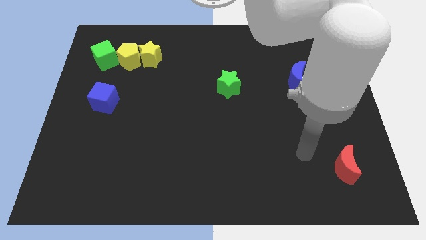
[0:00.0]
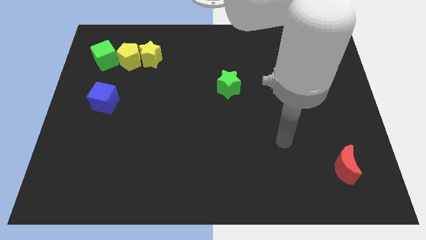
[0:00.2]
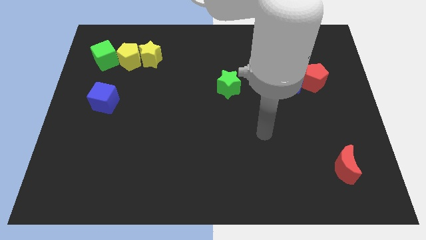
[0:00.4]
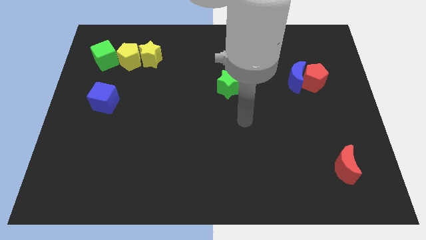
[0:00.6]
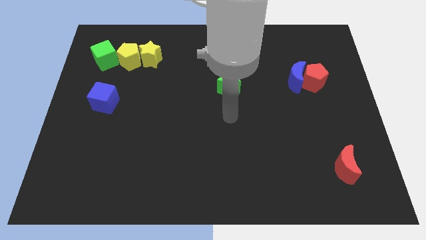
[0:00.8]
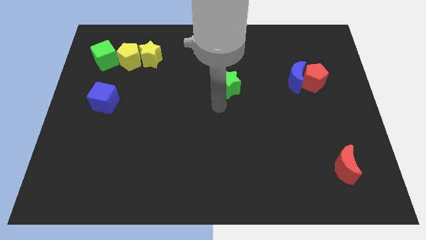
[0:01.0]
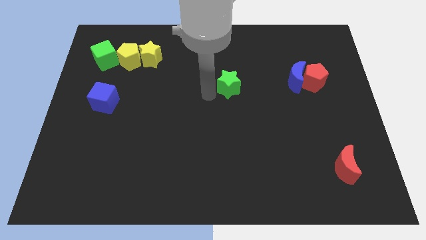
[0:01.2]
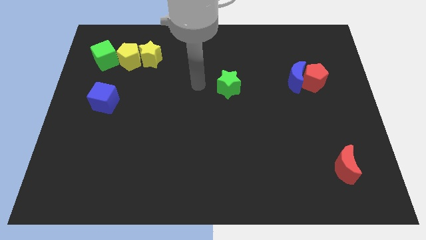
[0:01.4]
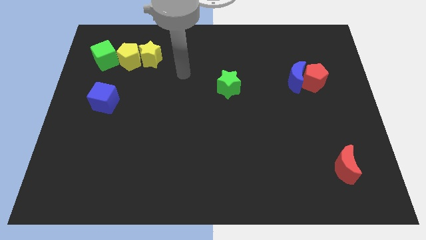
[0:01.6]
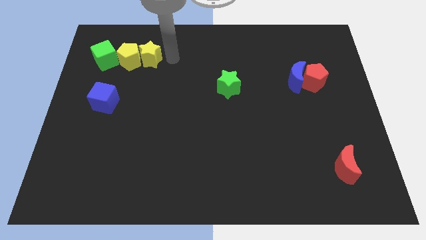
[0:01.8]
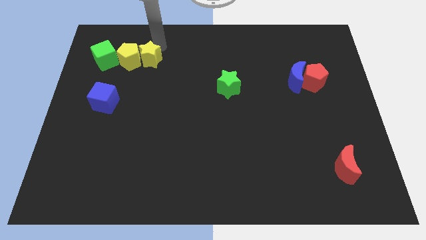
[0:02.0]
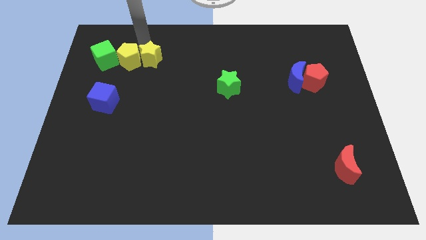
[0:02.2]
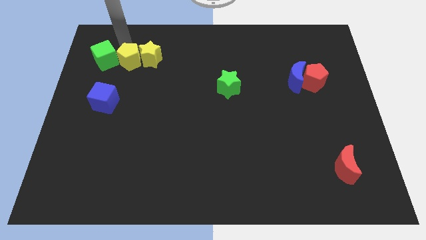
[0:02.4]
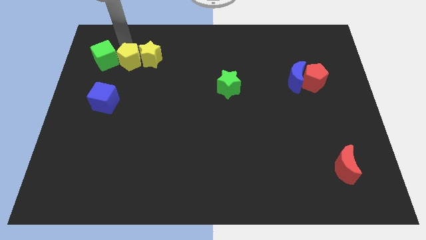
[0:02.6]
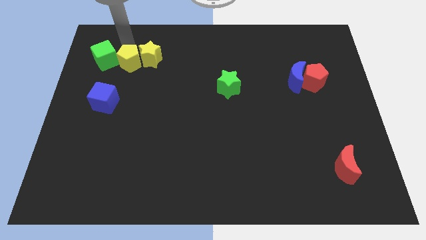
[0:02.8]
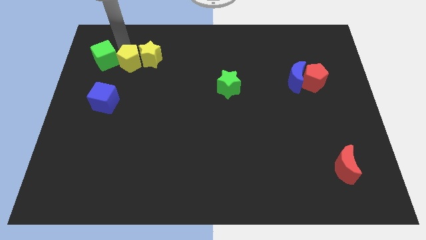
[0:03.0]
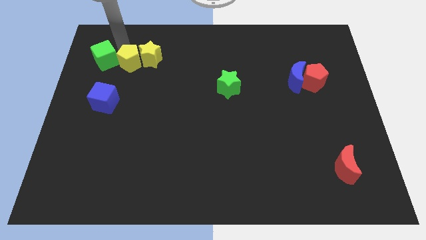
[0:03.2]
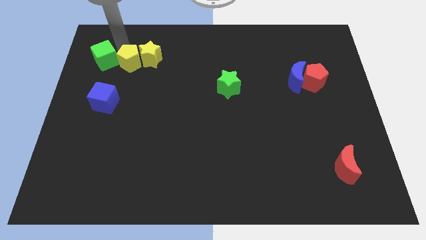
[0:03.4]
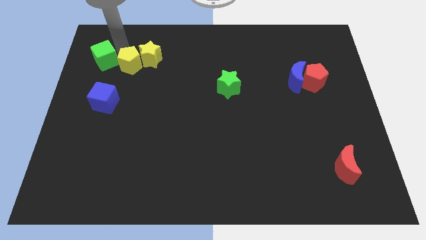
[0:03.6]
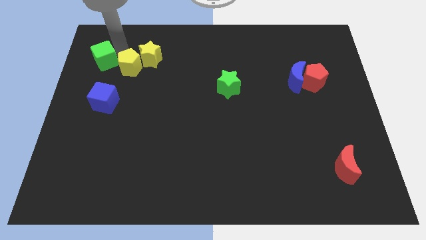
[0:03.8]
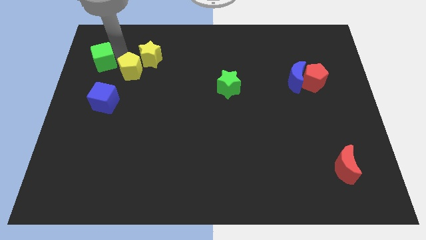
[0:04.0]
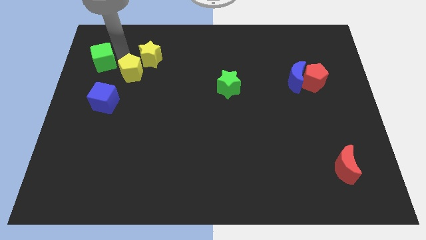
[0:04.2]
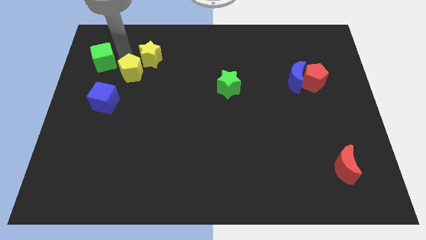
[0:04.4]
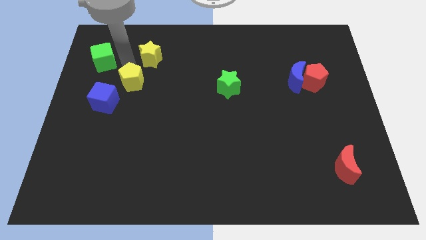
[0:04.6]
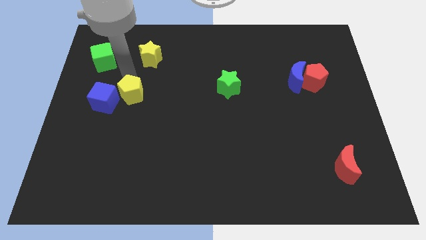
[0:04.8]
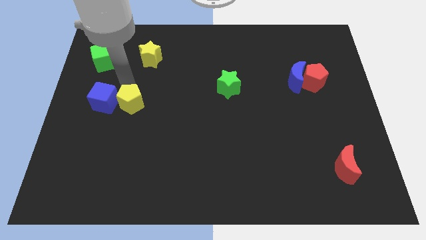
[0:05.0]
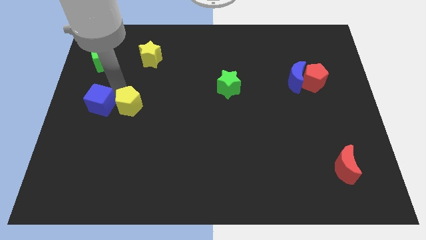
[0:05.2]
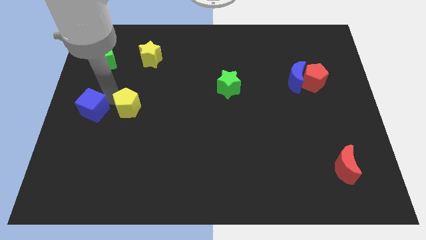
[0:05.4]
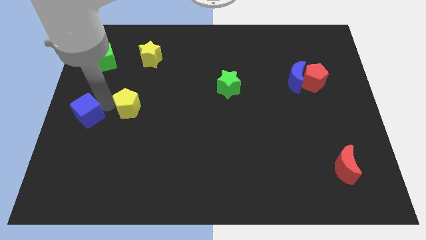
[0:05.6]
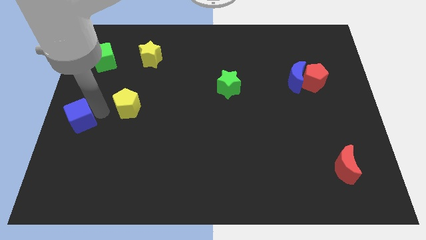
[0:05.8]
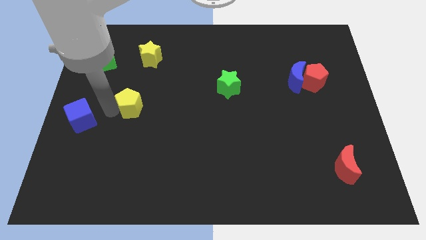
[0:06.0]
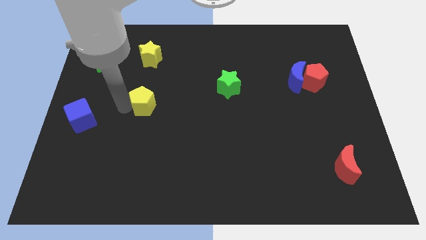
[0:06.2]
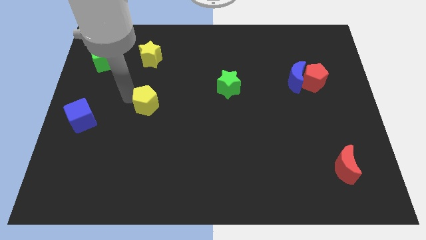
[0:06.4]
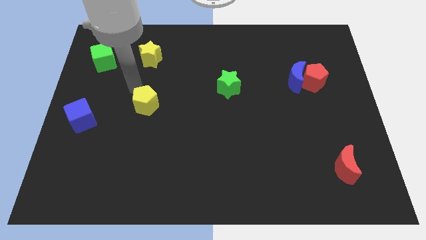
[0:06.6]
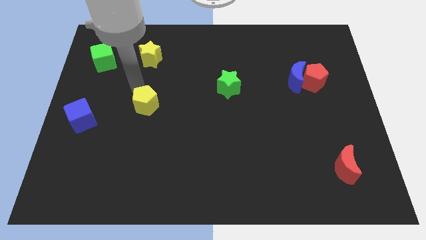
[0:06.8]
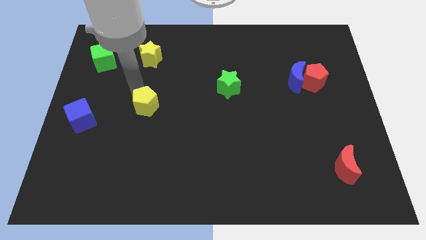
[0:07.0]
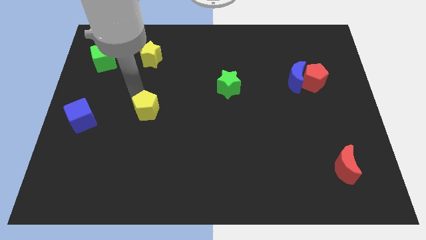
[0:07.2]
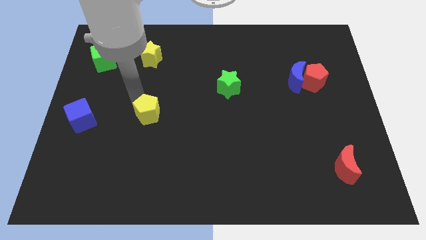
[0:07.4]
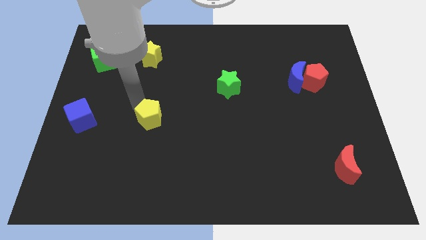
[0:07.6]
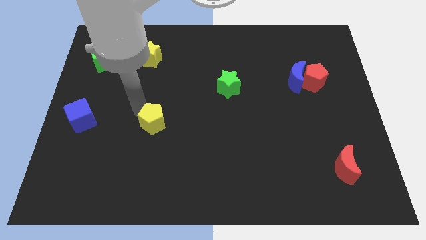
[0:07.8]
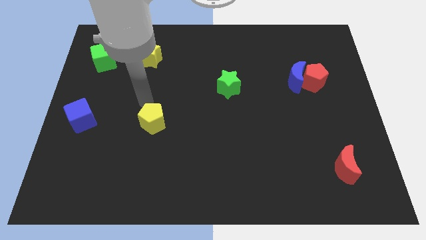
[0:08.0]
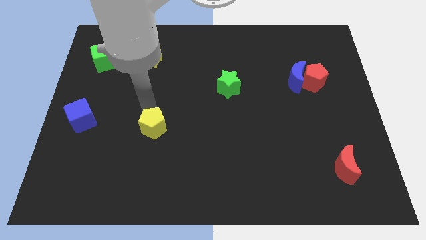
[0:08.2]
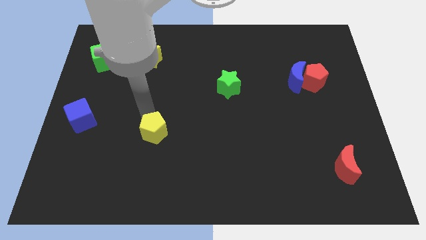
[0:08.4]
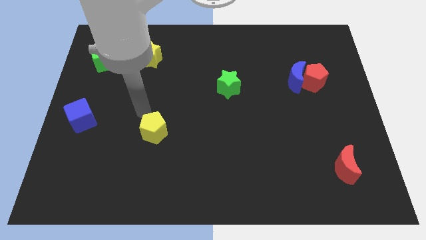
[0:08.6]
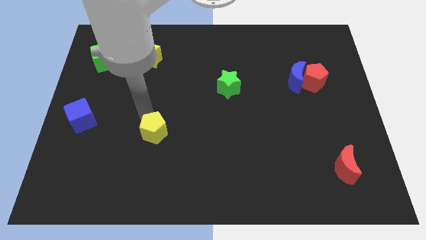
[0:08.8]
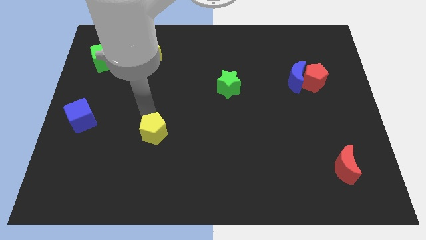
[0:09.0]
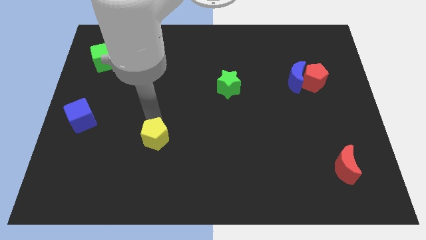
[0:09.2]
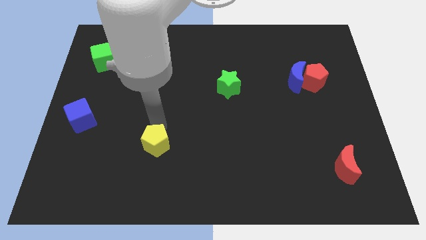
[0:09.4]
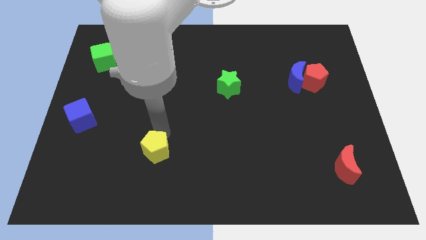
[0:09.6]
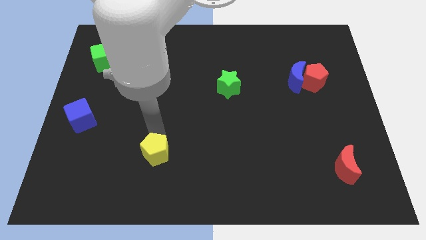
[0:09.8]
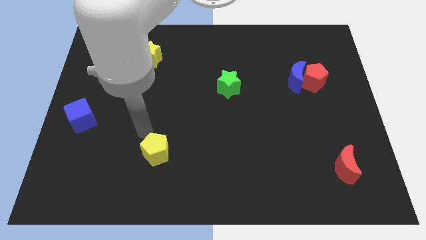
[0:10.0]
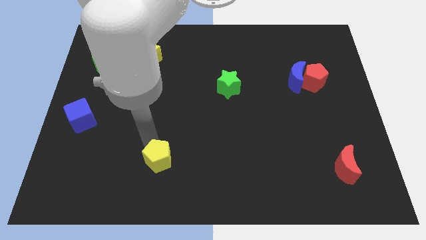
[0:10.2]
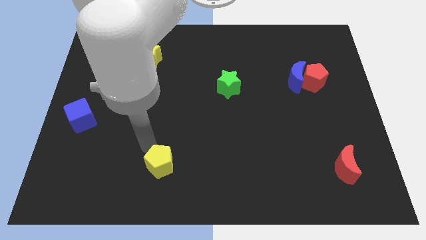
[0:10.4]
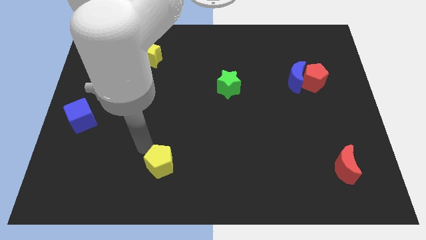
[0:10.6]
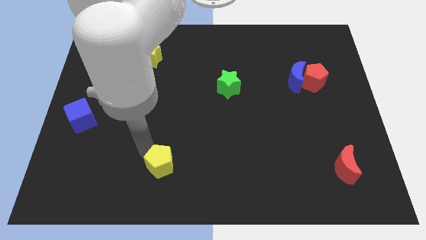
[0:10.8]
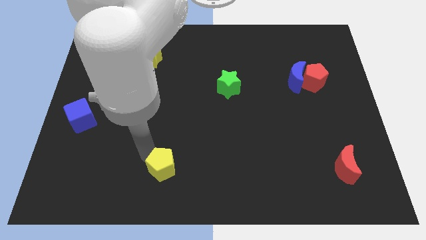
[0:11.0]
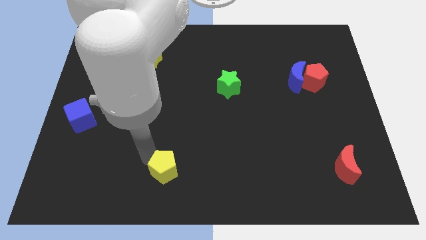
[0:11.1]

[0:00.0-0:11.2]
push the yellow pentagon to the bottom

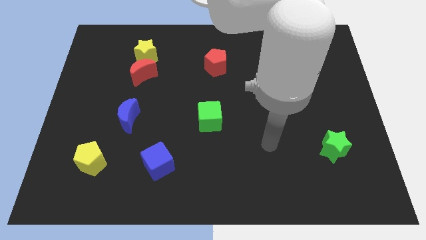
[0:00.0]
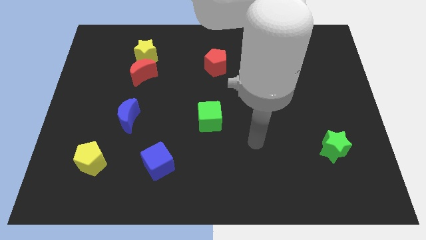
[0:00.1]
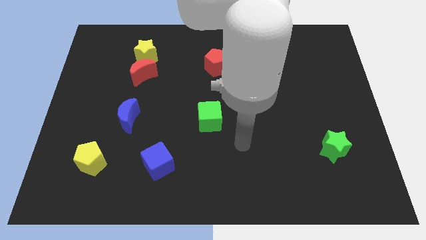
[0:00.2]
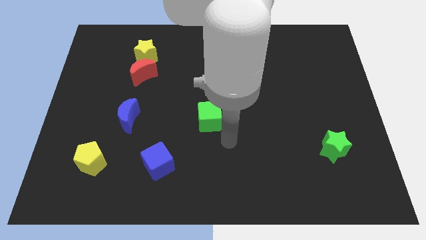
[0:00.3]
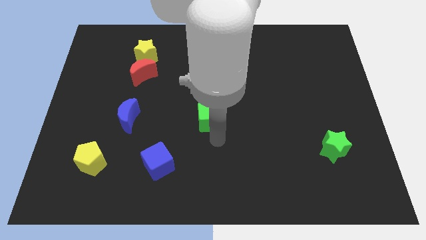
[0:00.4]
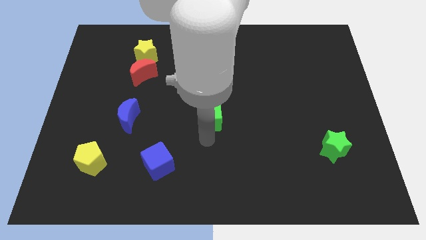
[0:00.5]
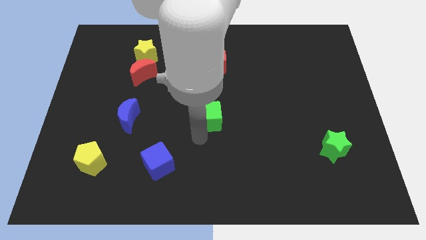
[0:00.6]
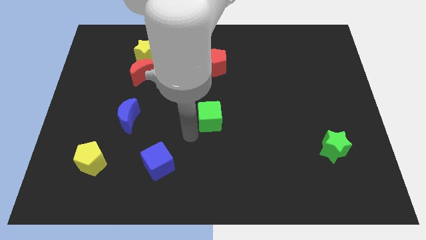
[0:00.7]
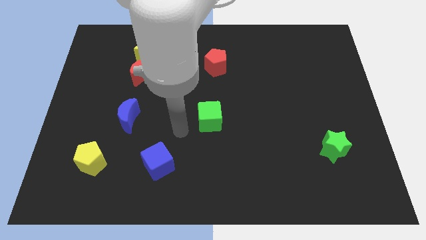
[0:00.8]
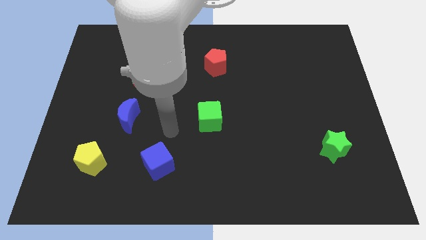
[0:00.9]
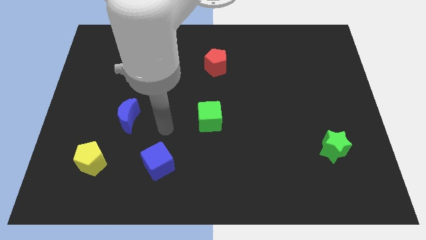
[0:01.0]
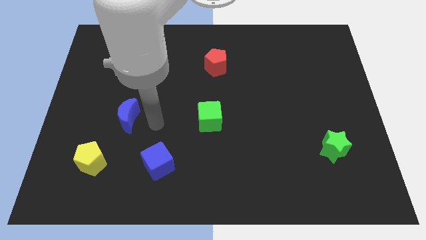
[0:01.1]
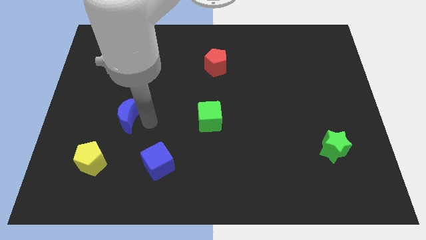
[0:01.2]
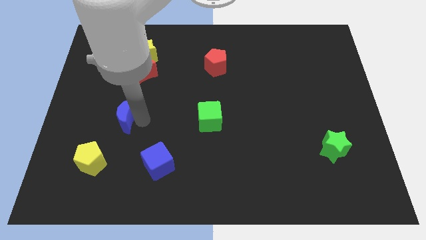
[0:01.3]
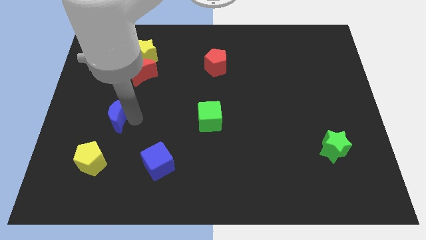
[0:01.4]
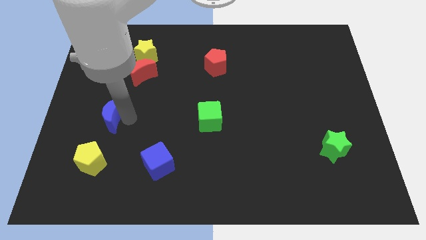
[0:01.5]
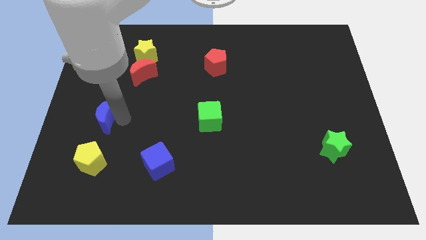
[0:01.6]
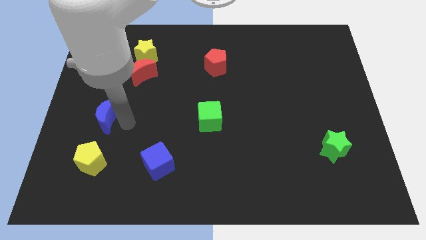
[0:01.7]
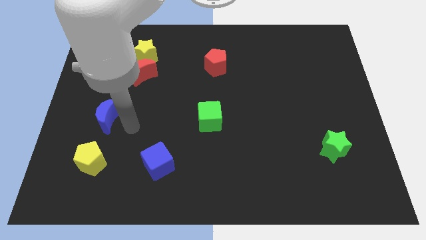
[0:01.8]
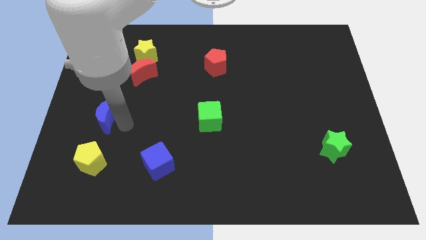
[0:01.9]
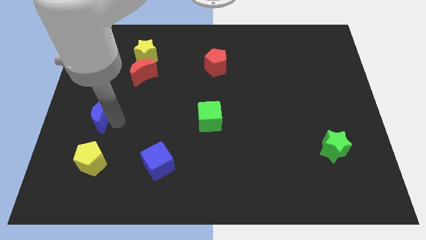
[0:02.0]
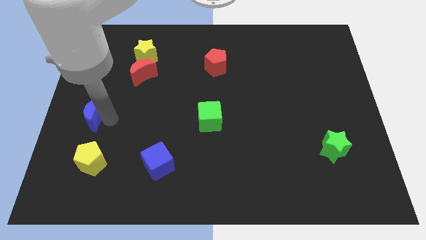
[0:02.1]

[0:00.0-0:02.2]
move the blue moon to the center left
